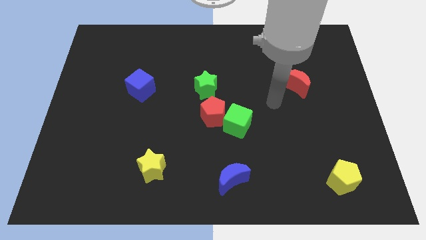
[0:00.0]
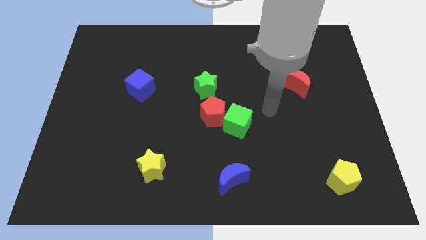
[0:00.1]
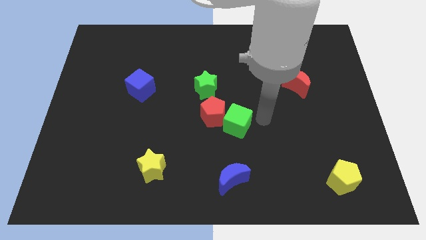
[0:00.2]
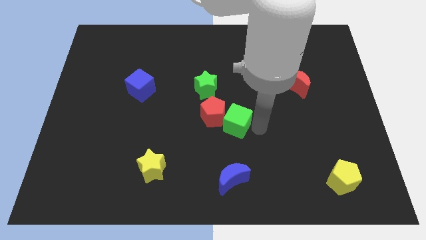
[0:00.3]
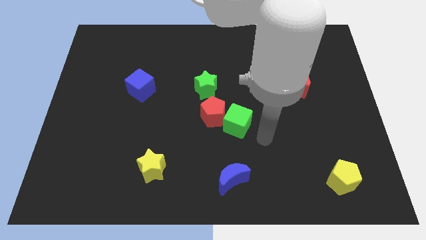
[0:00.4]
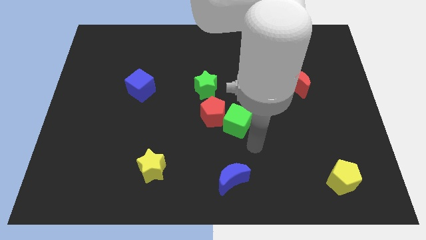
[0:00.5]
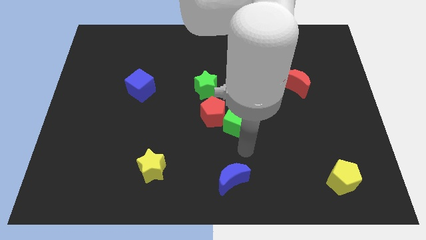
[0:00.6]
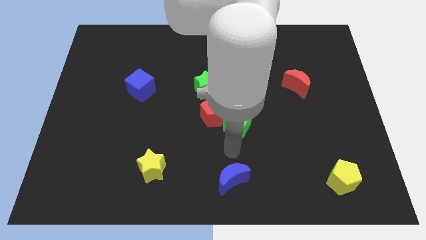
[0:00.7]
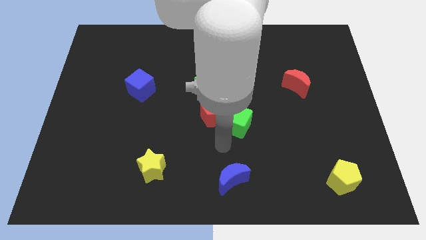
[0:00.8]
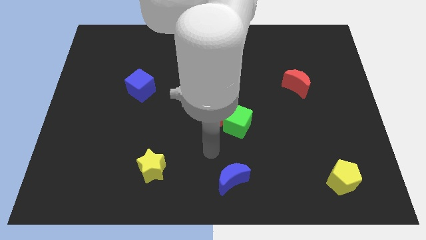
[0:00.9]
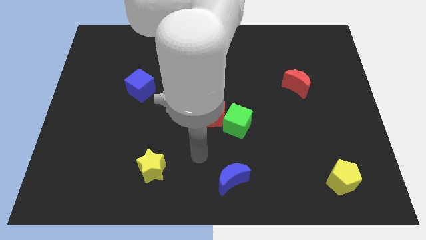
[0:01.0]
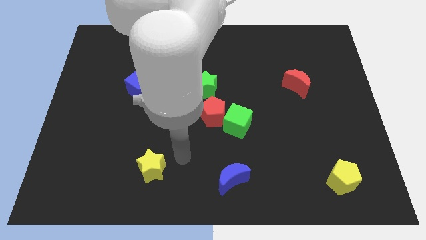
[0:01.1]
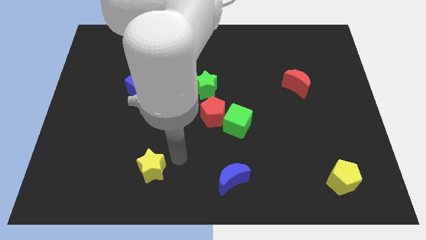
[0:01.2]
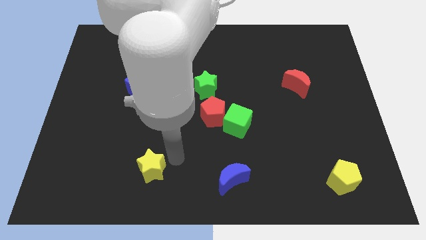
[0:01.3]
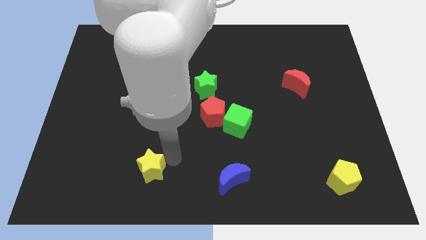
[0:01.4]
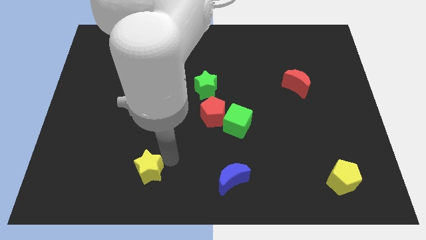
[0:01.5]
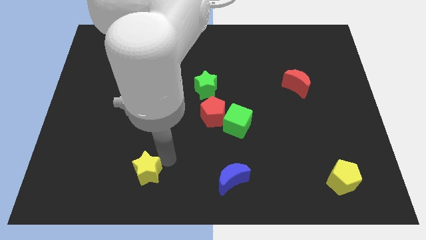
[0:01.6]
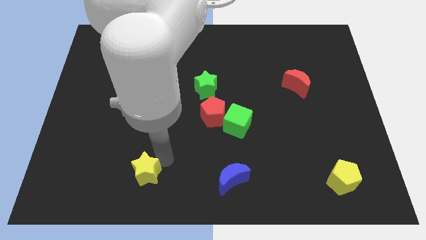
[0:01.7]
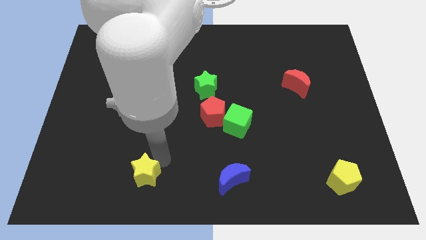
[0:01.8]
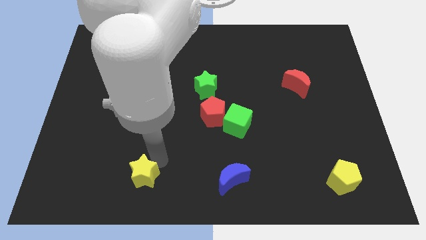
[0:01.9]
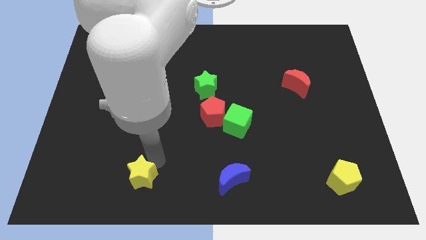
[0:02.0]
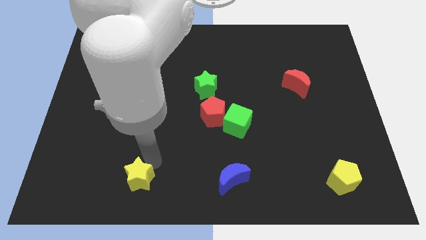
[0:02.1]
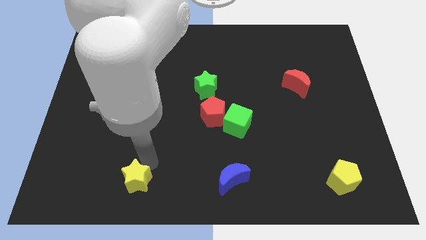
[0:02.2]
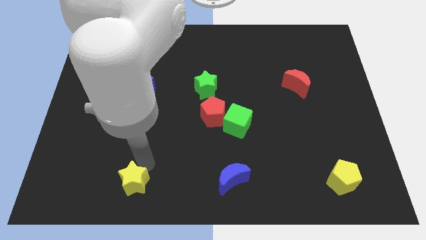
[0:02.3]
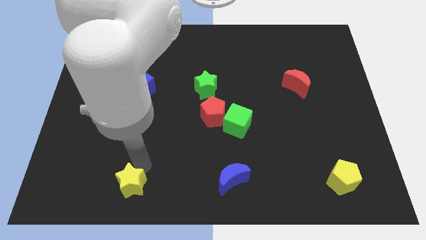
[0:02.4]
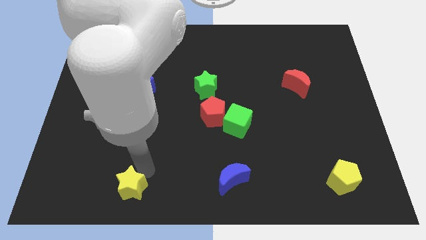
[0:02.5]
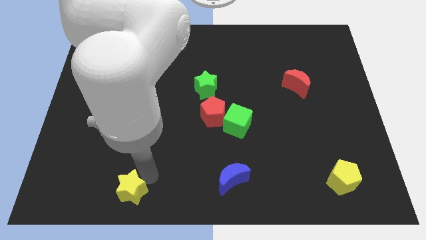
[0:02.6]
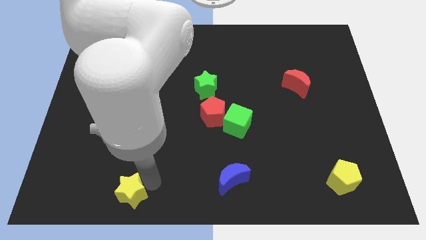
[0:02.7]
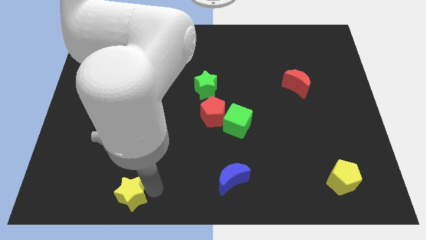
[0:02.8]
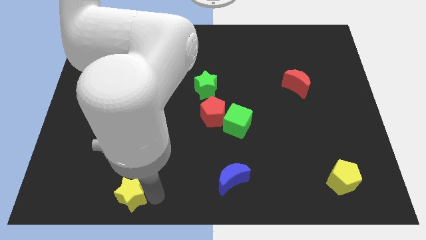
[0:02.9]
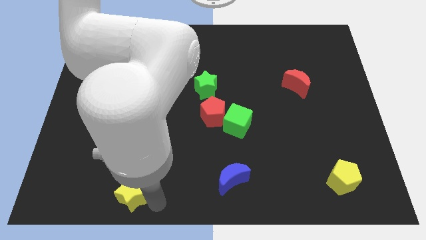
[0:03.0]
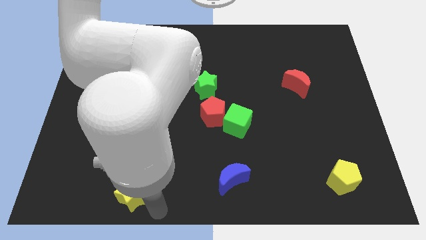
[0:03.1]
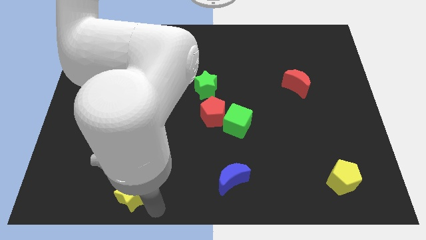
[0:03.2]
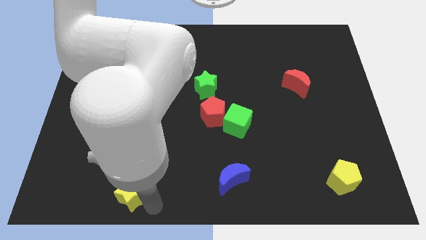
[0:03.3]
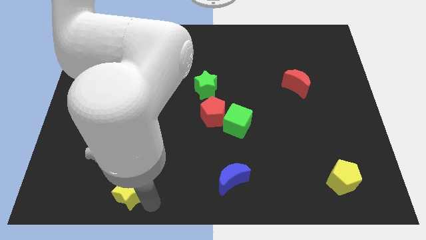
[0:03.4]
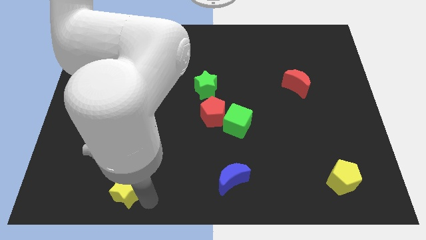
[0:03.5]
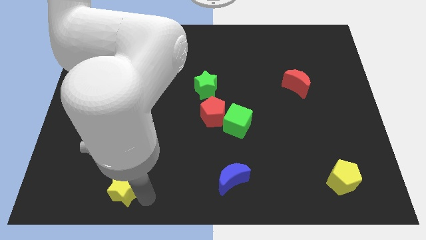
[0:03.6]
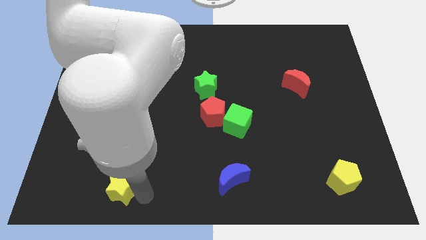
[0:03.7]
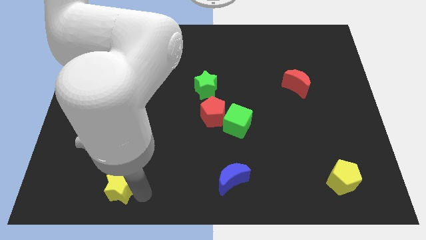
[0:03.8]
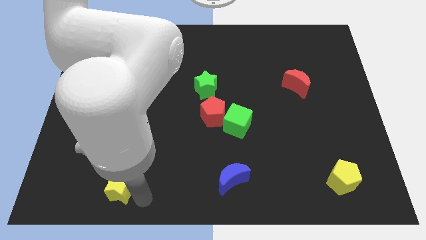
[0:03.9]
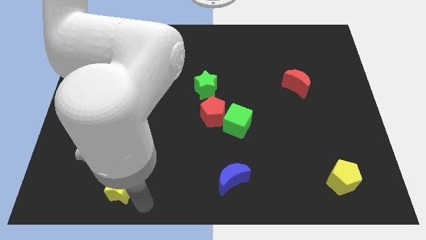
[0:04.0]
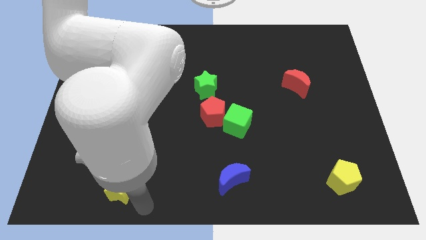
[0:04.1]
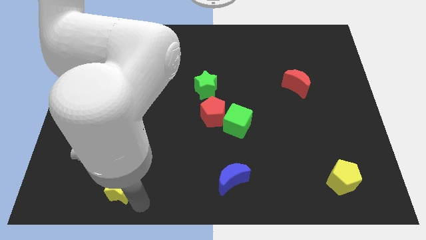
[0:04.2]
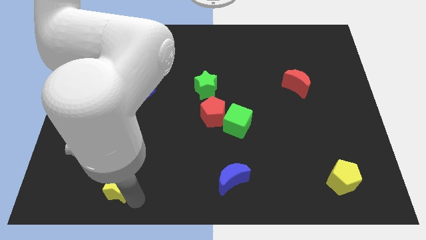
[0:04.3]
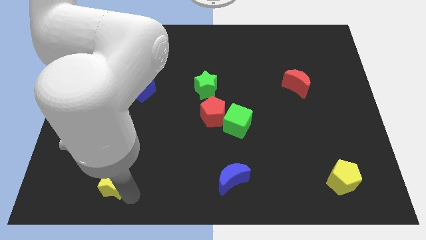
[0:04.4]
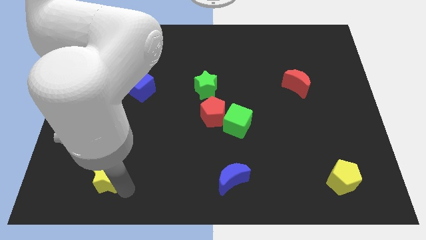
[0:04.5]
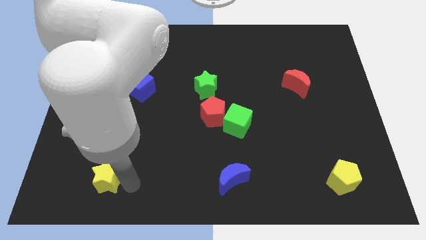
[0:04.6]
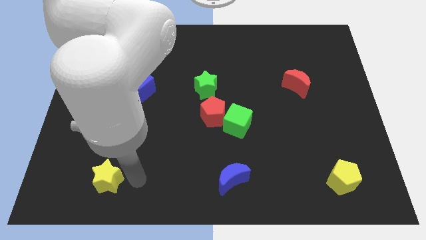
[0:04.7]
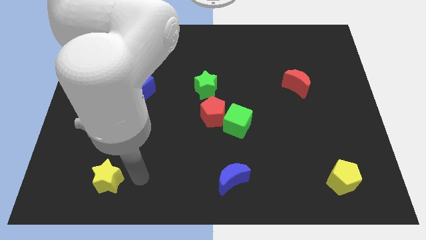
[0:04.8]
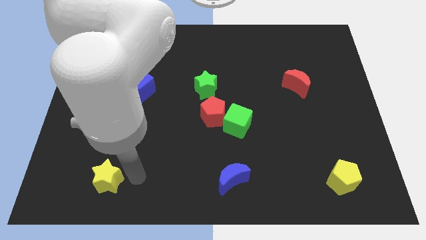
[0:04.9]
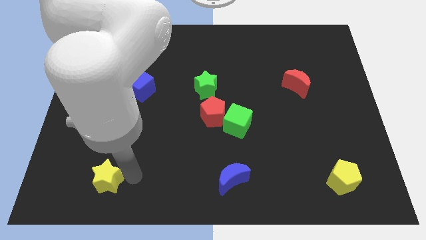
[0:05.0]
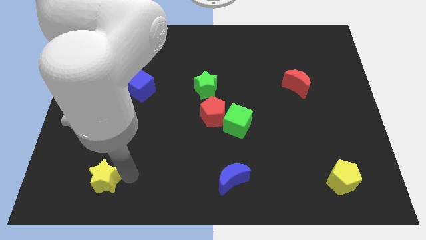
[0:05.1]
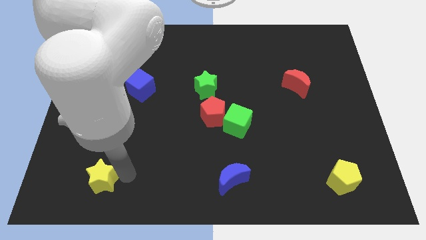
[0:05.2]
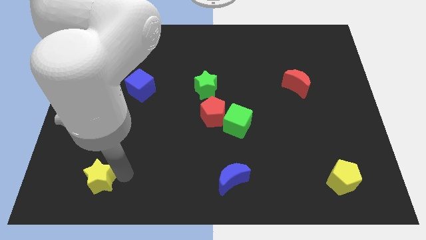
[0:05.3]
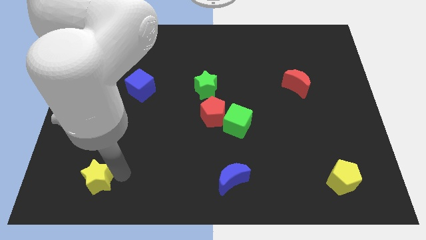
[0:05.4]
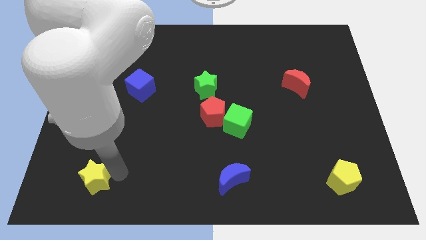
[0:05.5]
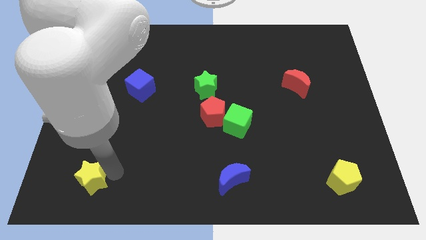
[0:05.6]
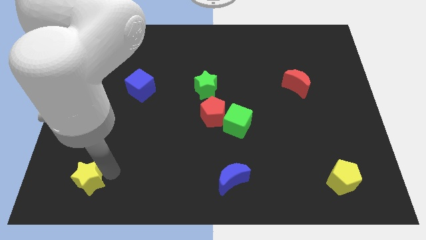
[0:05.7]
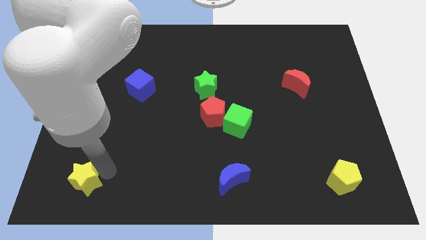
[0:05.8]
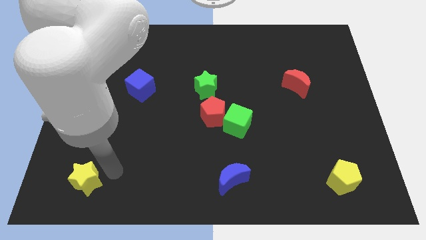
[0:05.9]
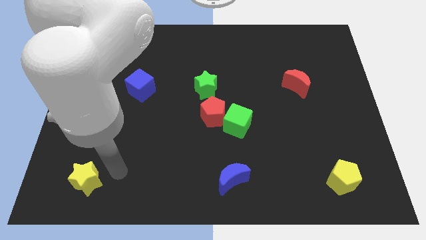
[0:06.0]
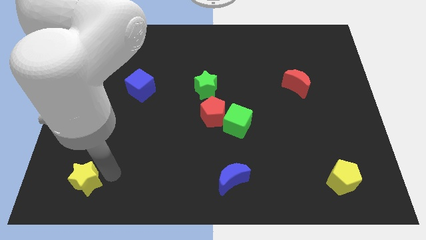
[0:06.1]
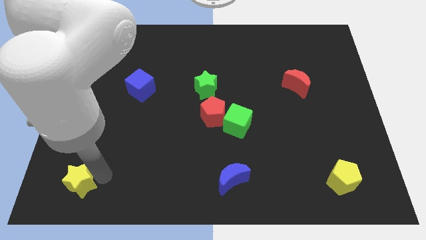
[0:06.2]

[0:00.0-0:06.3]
move the yellow star to the bottom left corner
